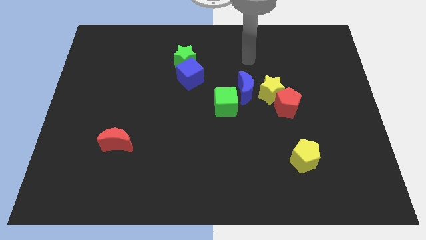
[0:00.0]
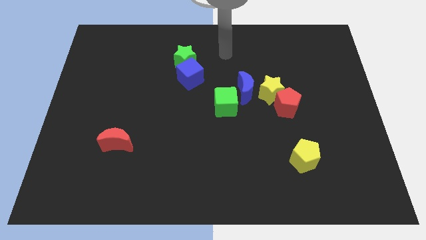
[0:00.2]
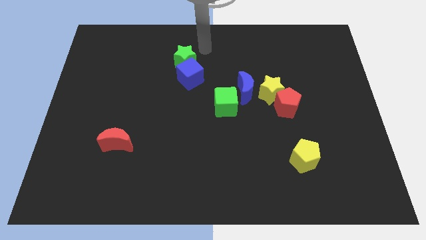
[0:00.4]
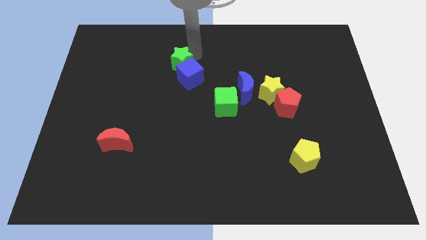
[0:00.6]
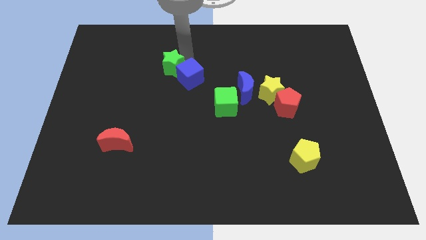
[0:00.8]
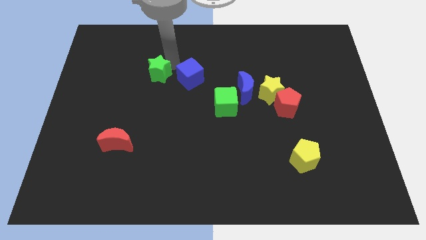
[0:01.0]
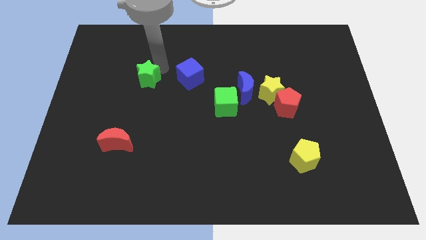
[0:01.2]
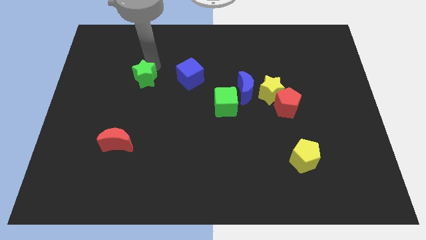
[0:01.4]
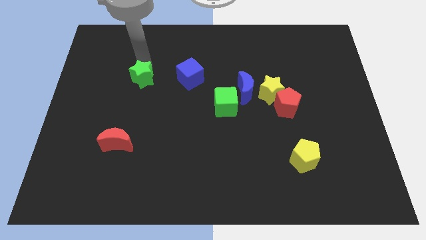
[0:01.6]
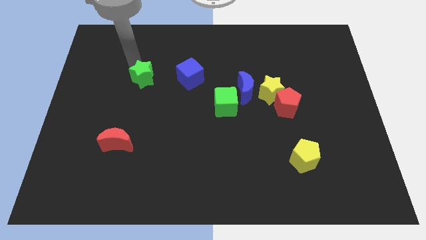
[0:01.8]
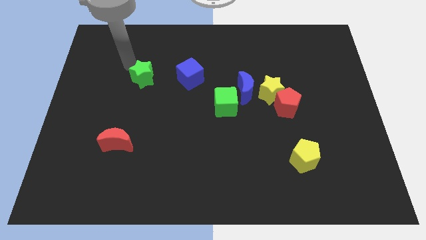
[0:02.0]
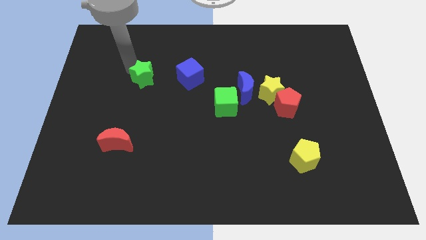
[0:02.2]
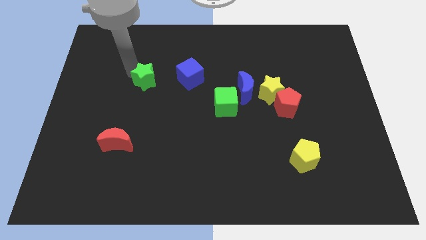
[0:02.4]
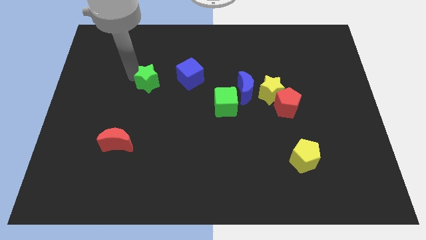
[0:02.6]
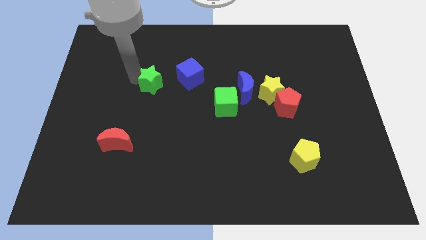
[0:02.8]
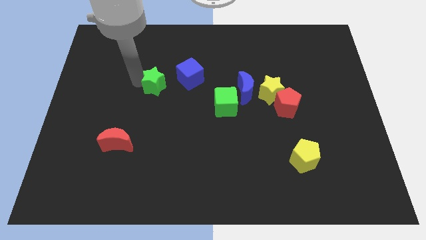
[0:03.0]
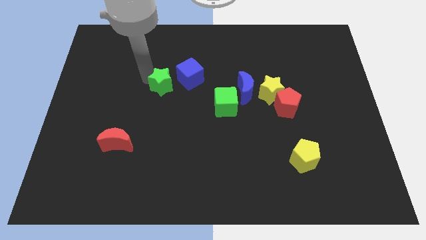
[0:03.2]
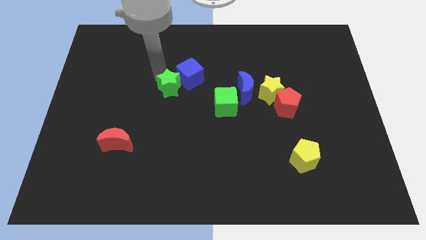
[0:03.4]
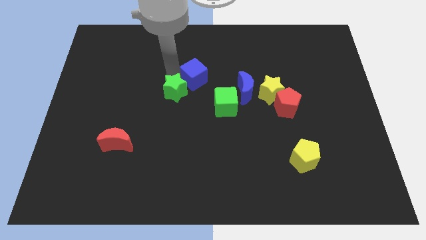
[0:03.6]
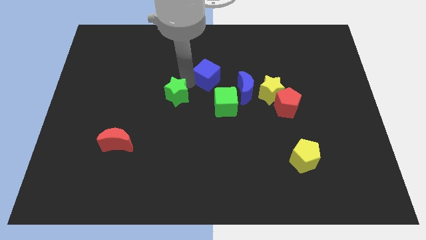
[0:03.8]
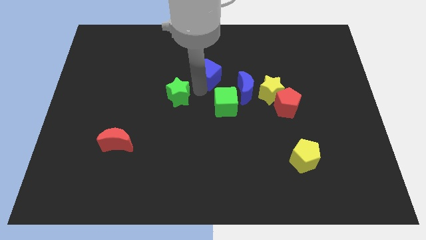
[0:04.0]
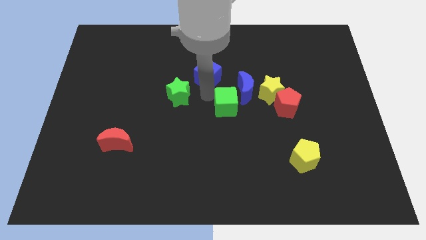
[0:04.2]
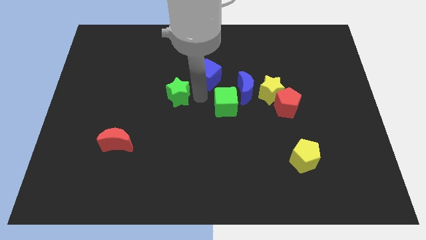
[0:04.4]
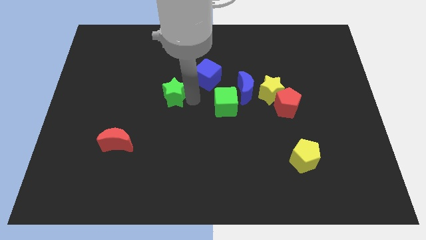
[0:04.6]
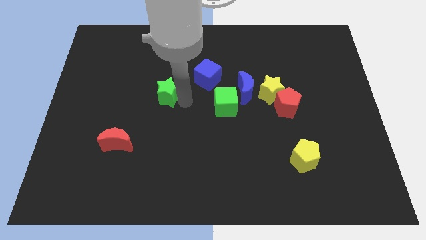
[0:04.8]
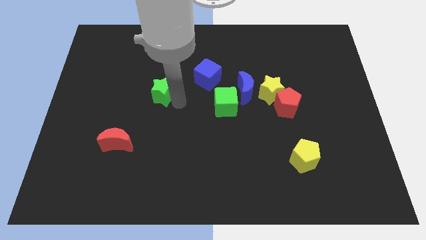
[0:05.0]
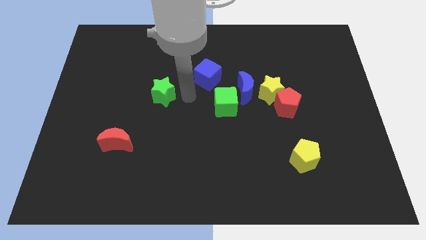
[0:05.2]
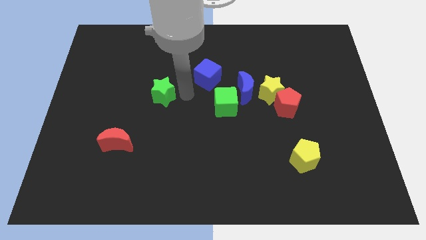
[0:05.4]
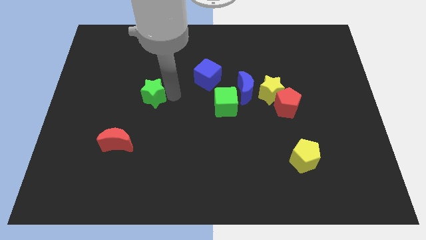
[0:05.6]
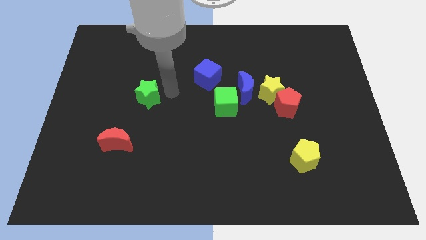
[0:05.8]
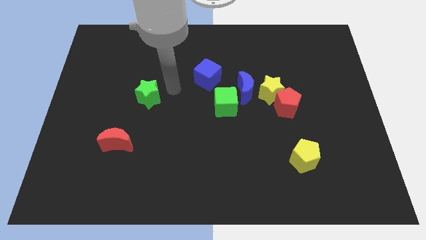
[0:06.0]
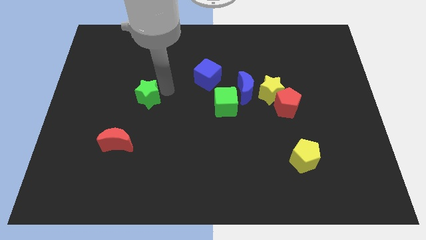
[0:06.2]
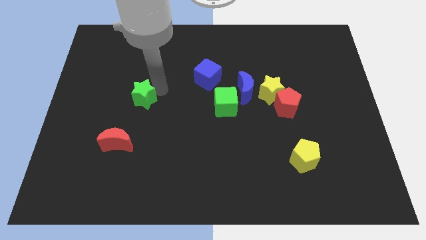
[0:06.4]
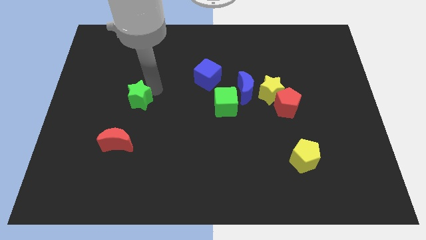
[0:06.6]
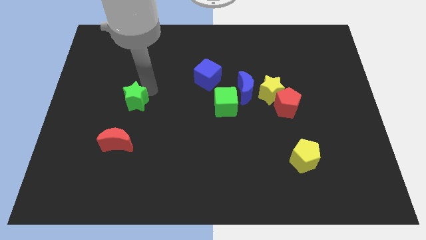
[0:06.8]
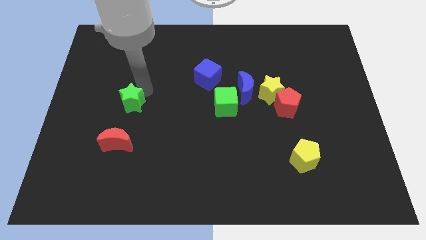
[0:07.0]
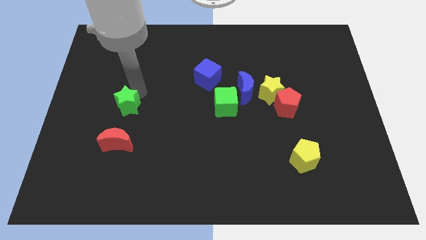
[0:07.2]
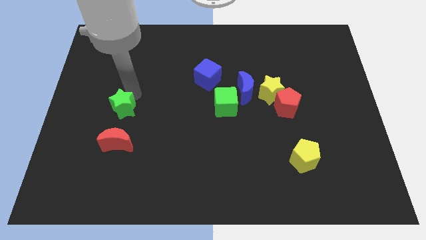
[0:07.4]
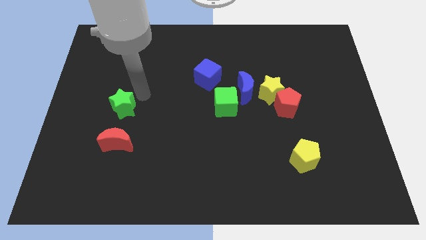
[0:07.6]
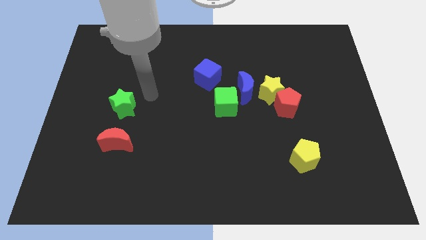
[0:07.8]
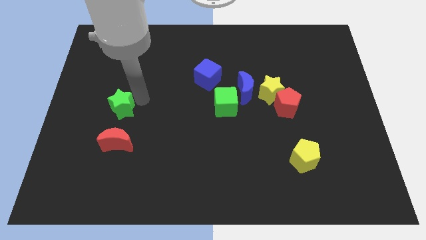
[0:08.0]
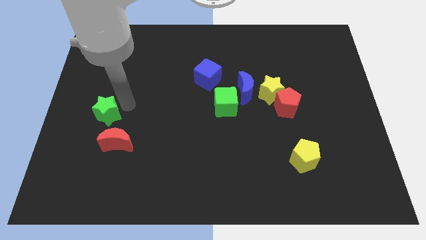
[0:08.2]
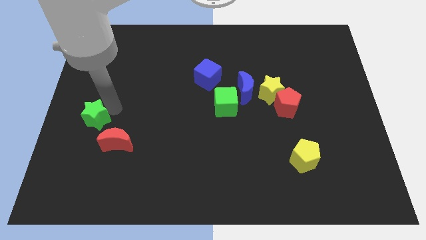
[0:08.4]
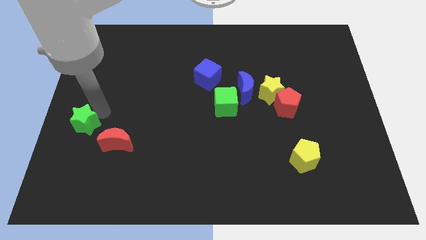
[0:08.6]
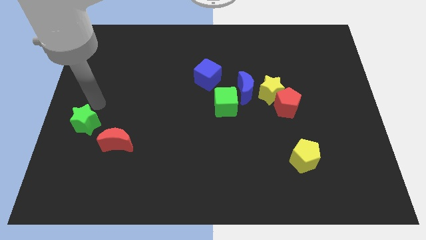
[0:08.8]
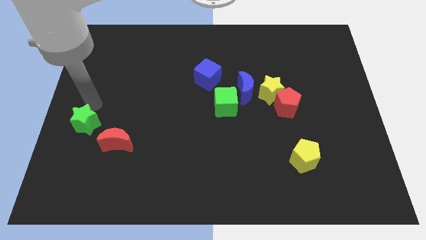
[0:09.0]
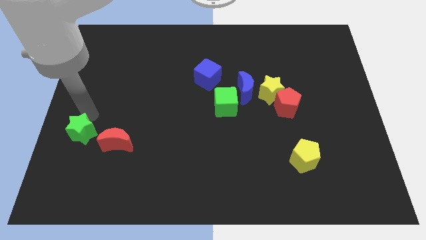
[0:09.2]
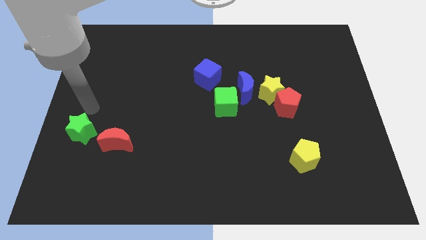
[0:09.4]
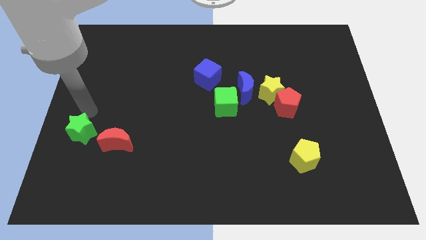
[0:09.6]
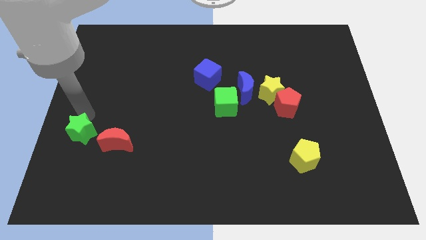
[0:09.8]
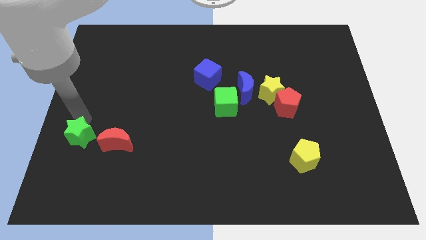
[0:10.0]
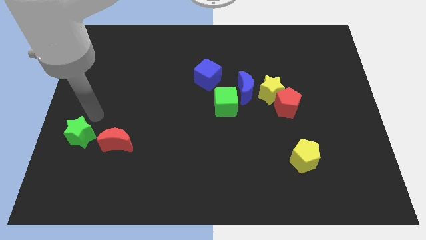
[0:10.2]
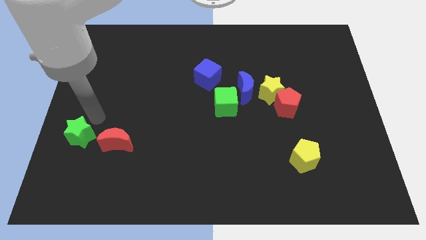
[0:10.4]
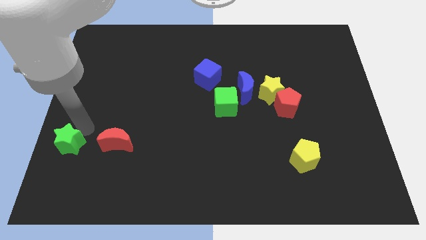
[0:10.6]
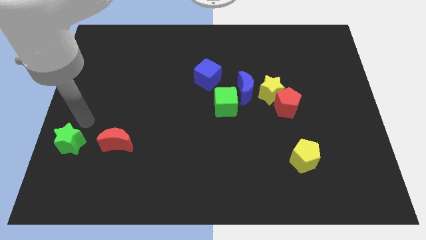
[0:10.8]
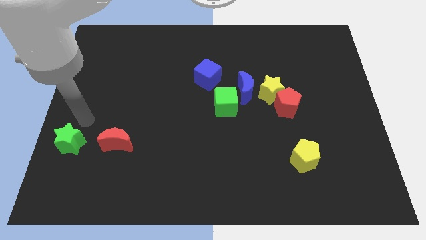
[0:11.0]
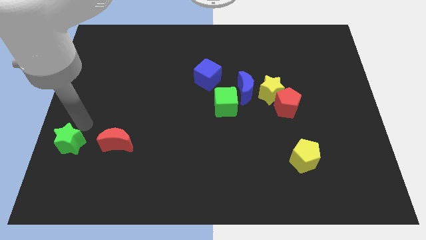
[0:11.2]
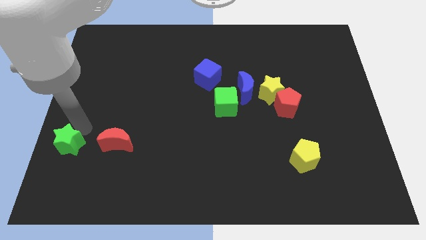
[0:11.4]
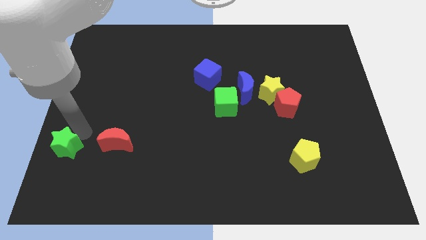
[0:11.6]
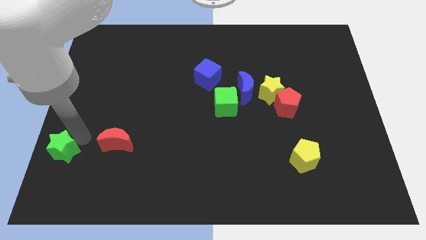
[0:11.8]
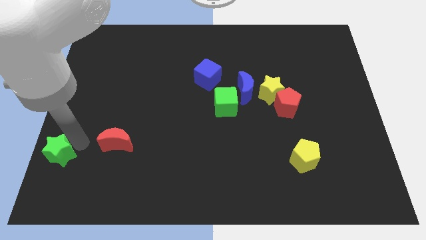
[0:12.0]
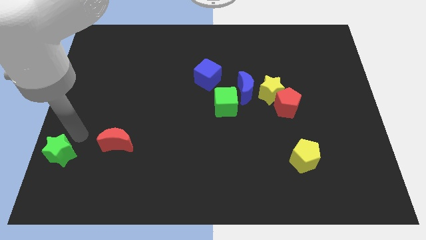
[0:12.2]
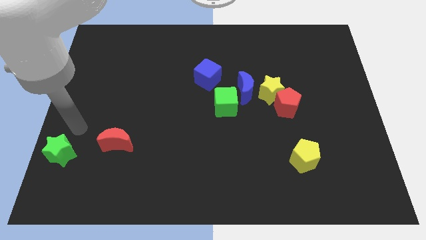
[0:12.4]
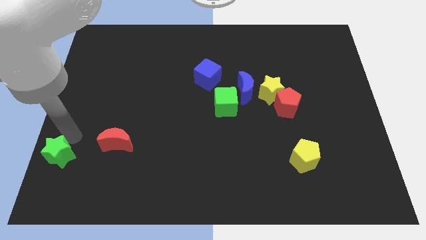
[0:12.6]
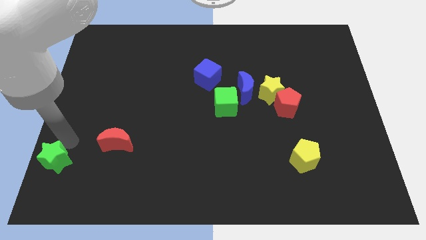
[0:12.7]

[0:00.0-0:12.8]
push the green star to the bottom left of the board

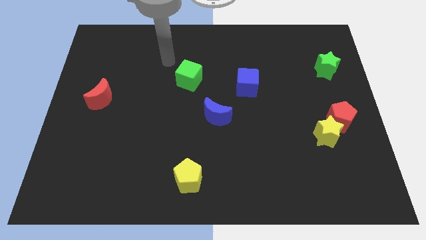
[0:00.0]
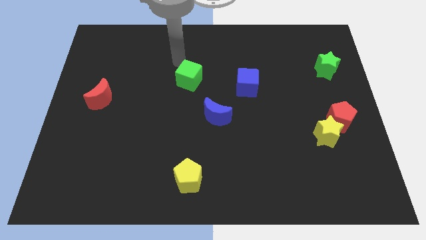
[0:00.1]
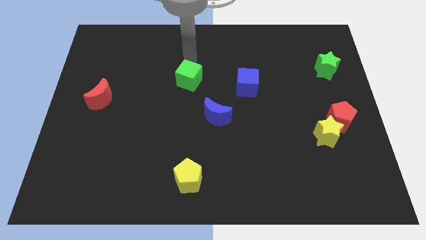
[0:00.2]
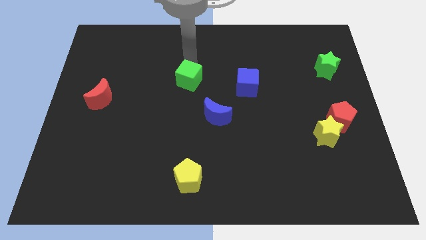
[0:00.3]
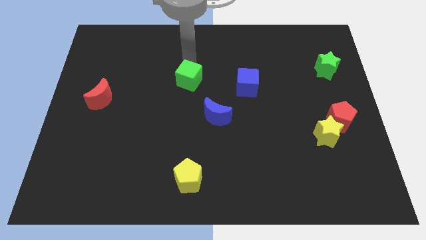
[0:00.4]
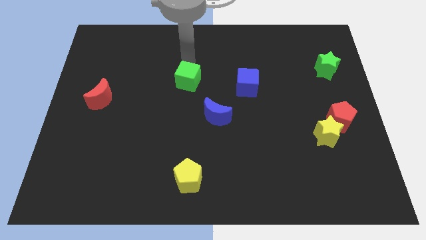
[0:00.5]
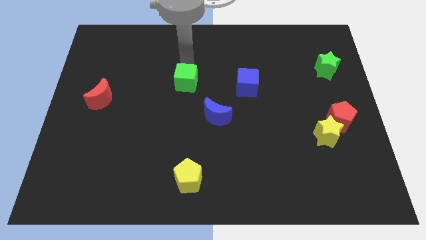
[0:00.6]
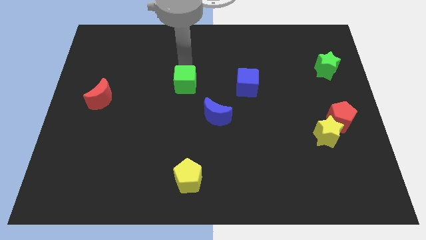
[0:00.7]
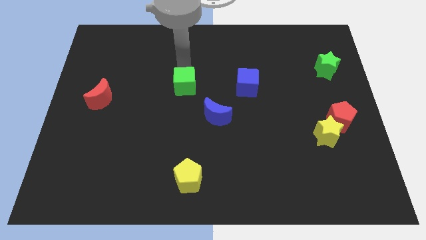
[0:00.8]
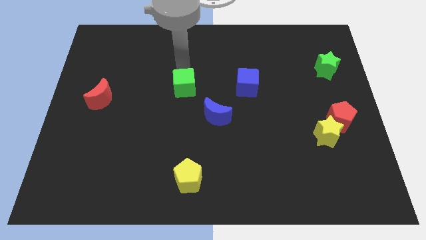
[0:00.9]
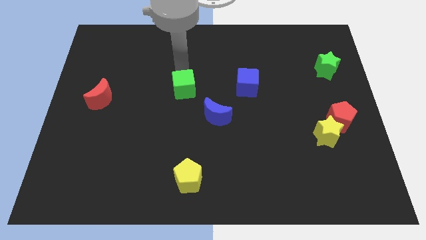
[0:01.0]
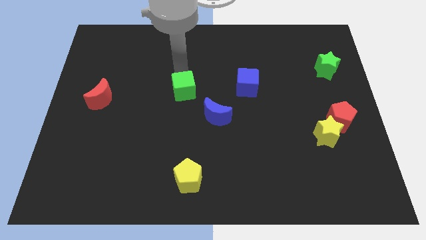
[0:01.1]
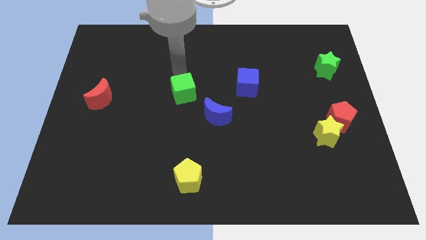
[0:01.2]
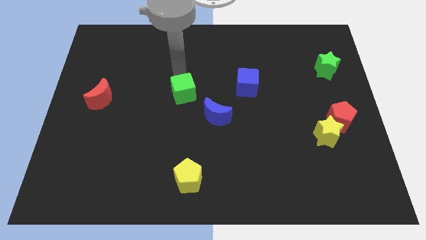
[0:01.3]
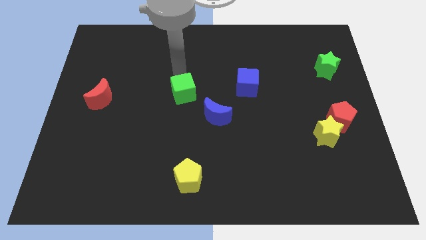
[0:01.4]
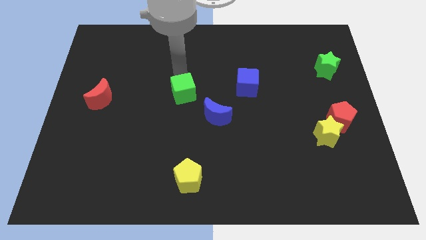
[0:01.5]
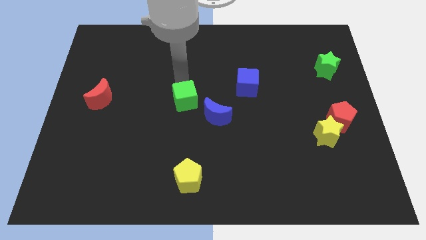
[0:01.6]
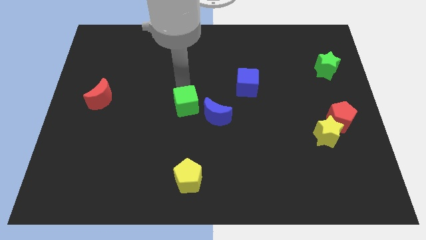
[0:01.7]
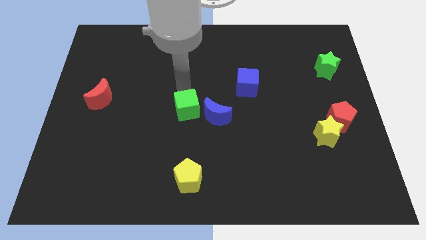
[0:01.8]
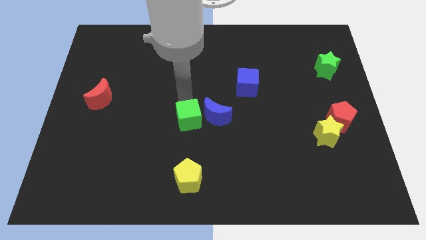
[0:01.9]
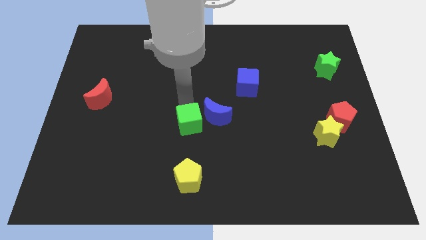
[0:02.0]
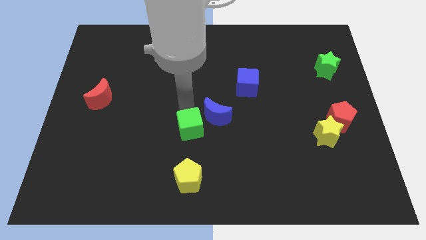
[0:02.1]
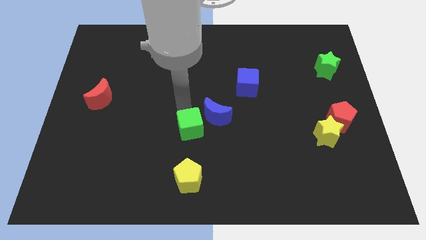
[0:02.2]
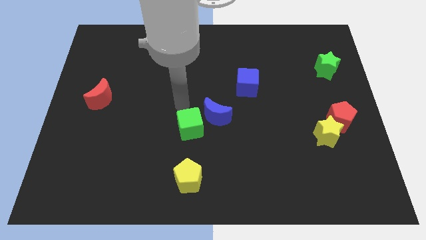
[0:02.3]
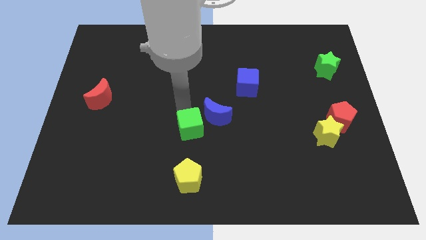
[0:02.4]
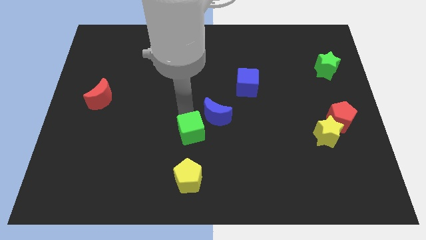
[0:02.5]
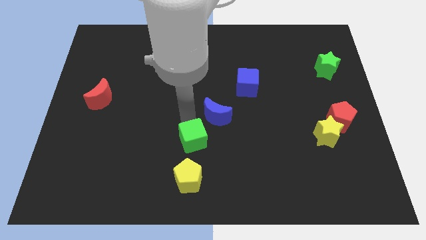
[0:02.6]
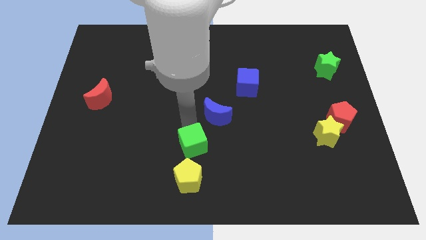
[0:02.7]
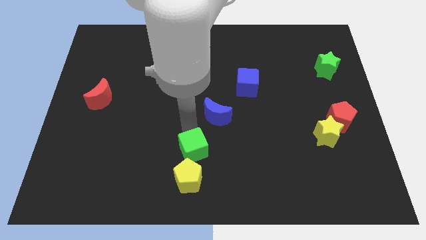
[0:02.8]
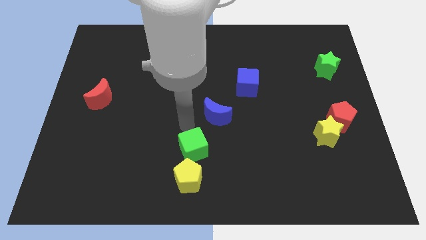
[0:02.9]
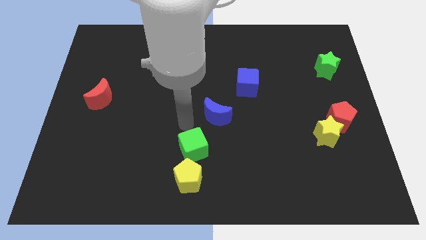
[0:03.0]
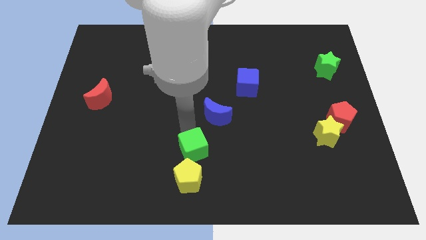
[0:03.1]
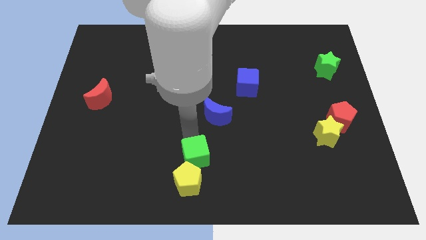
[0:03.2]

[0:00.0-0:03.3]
move the green cube to the bottom
